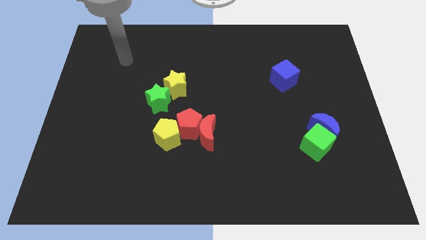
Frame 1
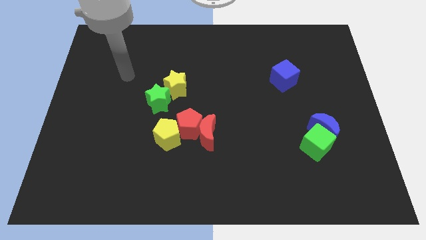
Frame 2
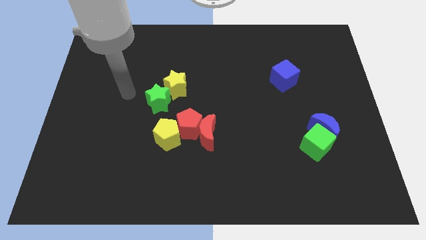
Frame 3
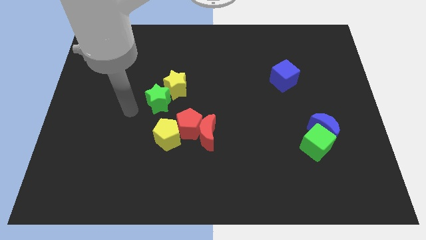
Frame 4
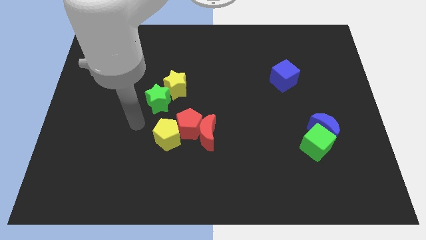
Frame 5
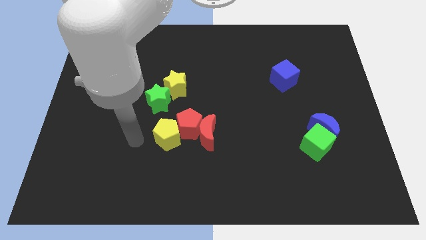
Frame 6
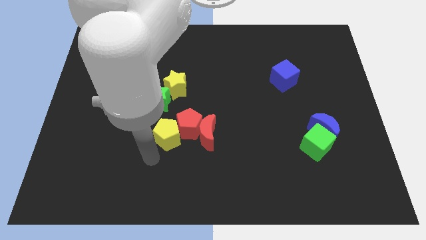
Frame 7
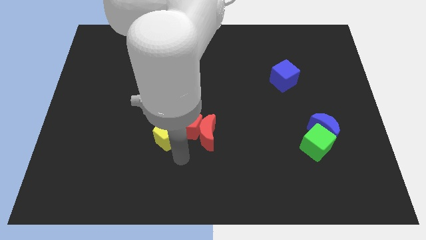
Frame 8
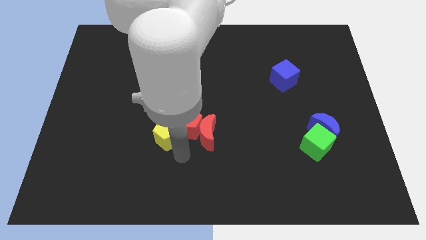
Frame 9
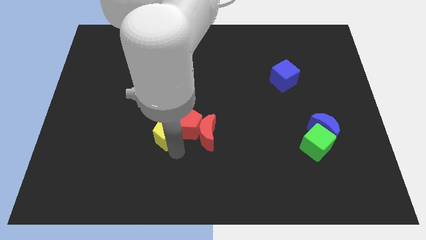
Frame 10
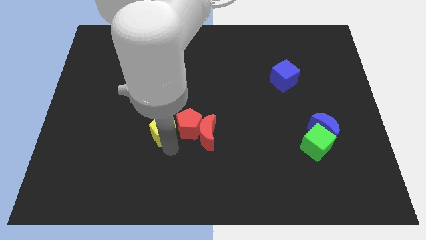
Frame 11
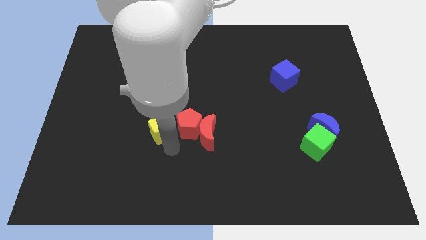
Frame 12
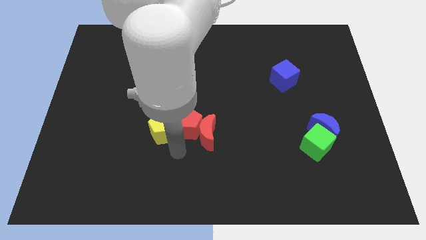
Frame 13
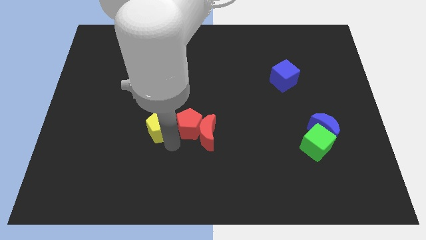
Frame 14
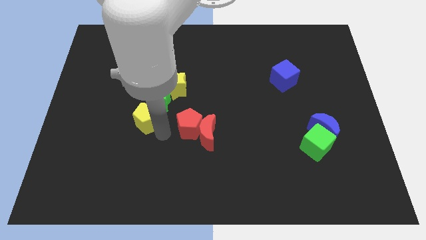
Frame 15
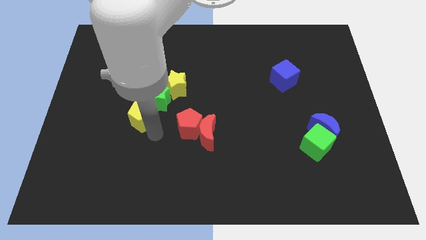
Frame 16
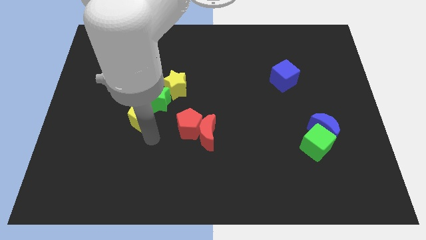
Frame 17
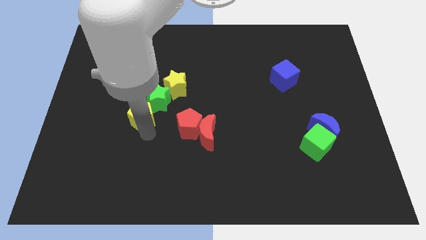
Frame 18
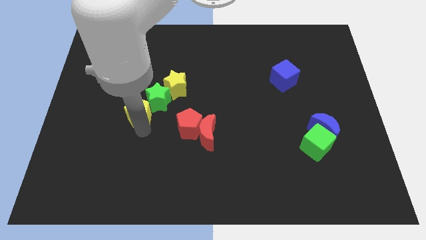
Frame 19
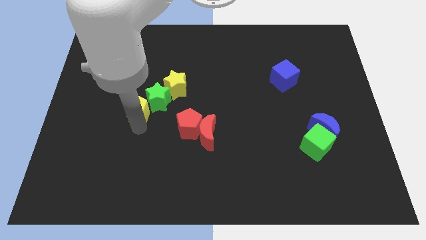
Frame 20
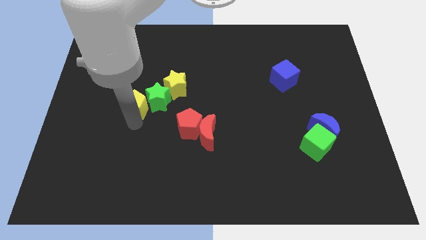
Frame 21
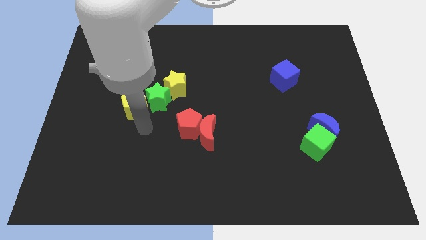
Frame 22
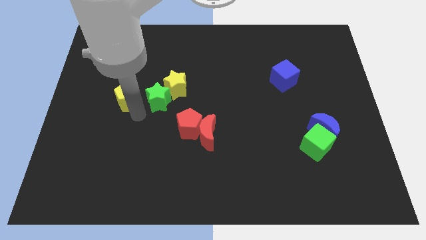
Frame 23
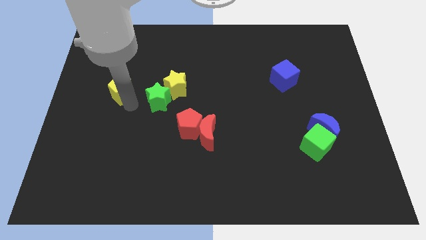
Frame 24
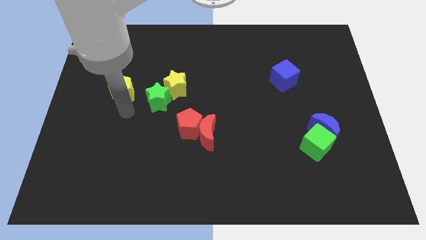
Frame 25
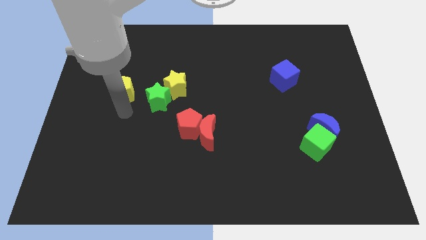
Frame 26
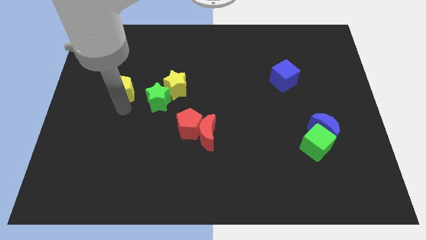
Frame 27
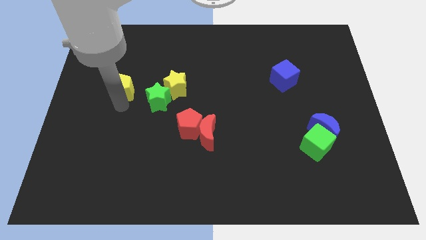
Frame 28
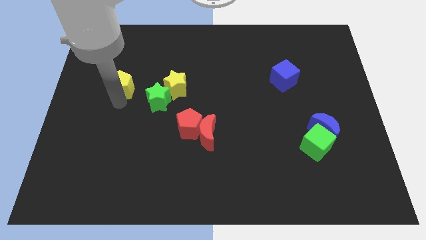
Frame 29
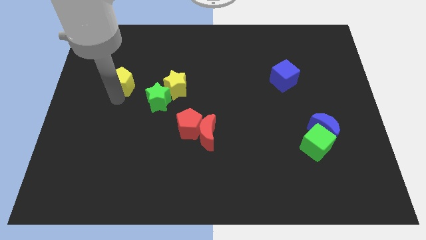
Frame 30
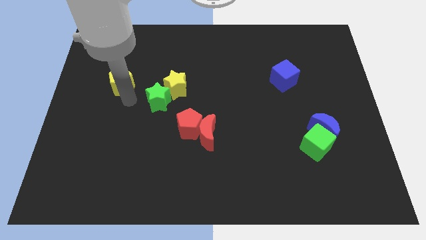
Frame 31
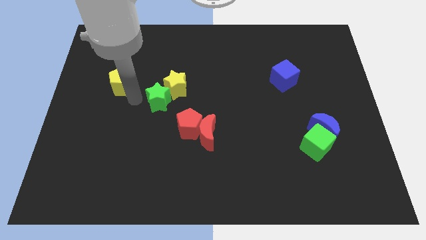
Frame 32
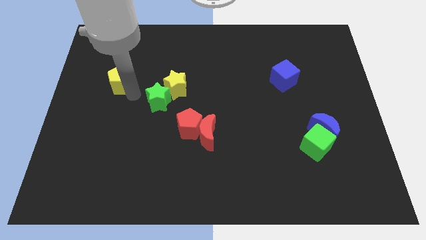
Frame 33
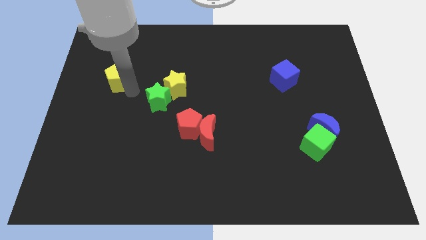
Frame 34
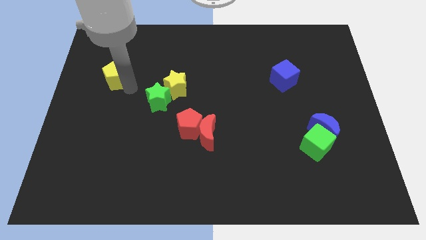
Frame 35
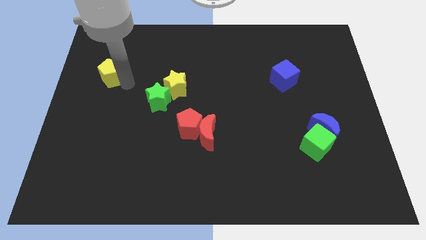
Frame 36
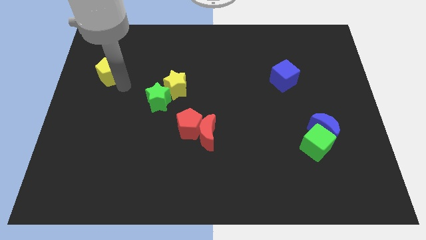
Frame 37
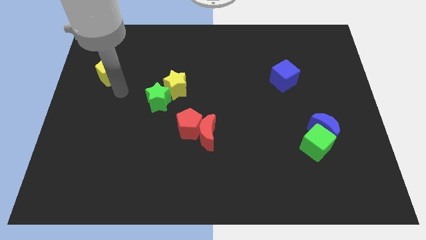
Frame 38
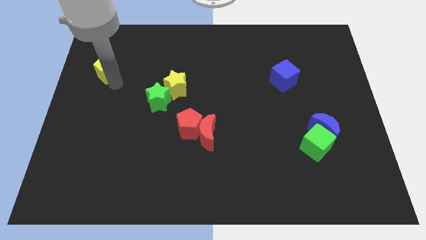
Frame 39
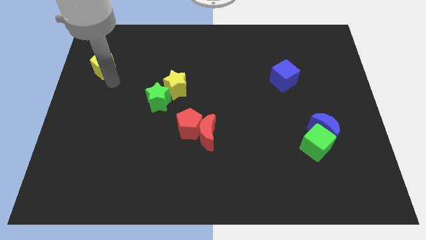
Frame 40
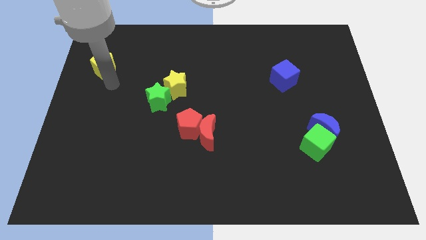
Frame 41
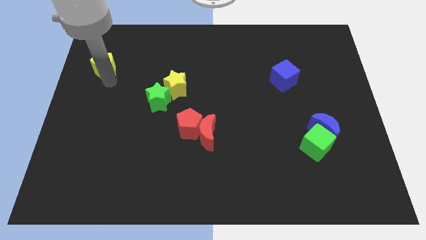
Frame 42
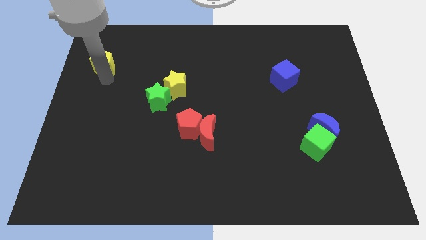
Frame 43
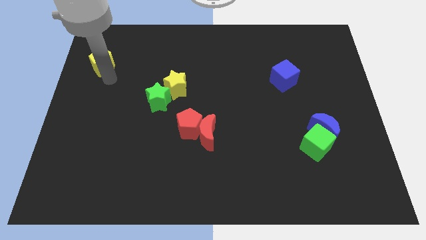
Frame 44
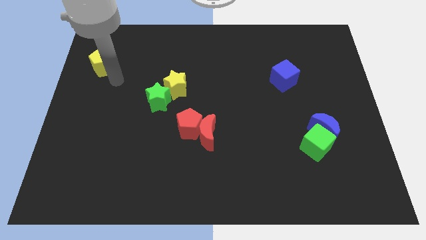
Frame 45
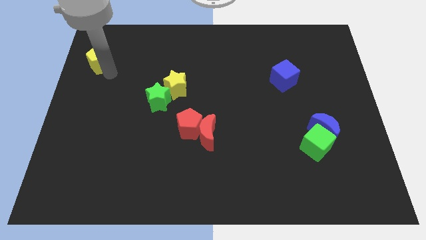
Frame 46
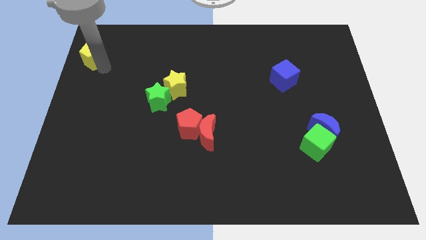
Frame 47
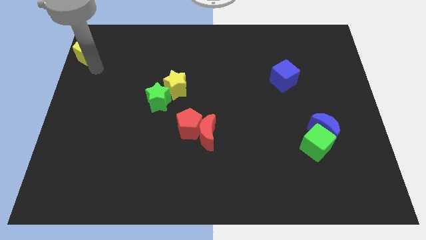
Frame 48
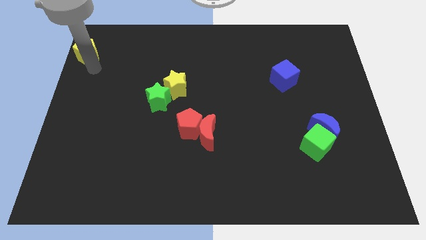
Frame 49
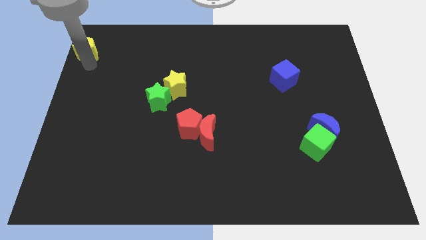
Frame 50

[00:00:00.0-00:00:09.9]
move the yellow pentagon to the top left

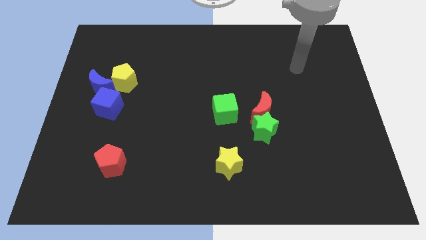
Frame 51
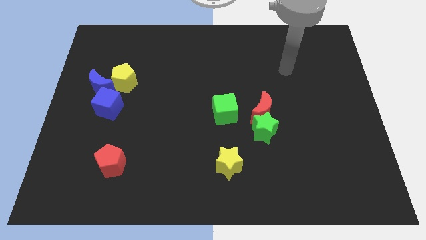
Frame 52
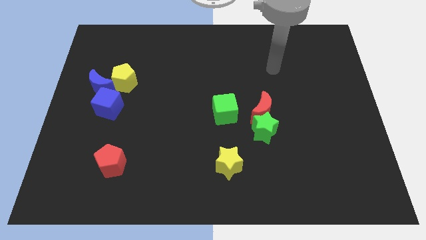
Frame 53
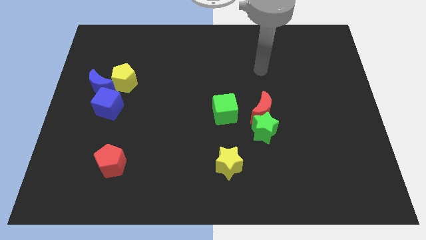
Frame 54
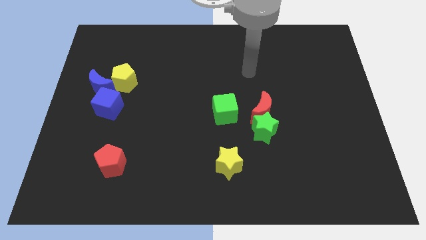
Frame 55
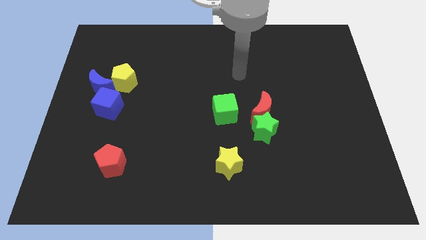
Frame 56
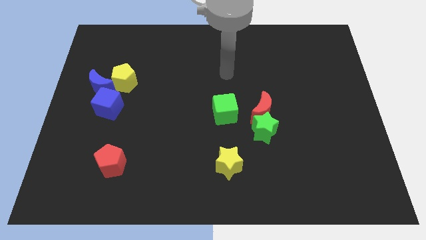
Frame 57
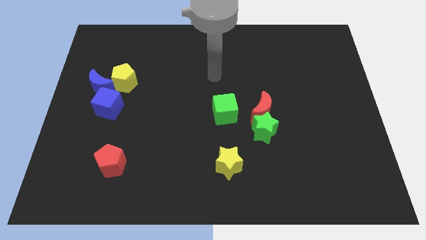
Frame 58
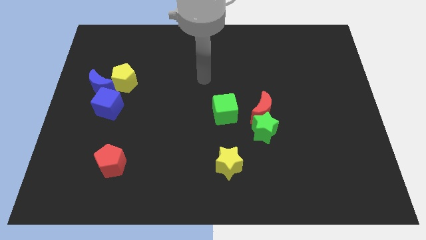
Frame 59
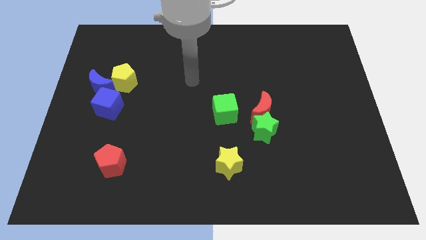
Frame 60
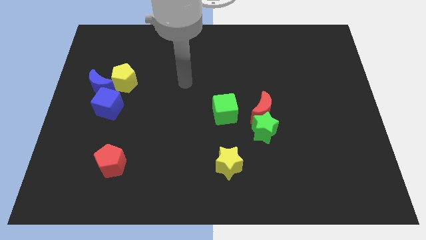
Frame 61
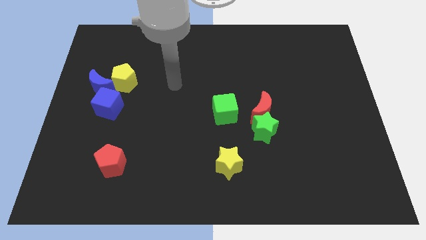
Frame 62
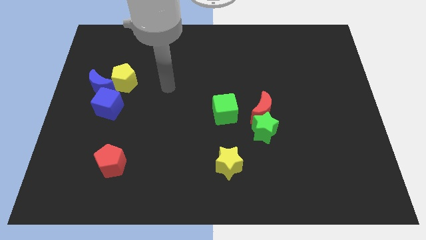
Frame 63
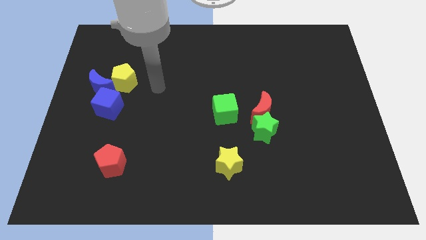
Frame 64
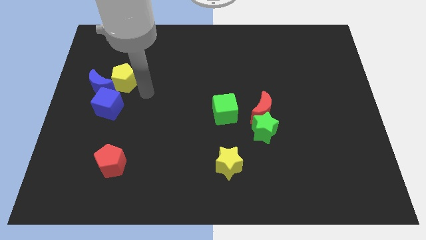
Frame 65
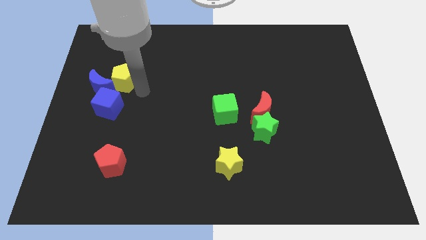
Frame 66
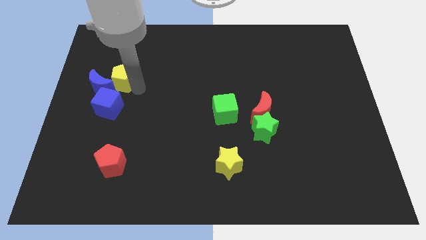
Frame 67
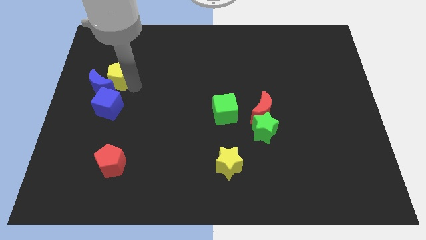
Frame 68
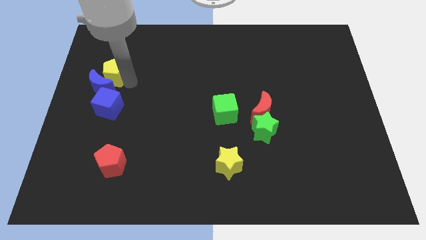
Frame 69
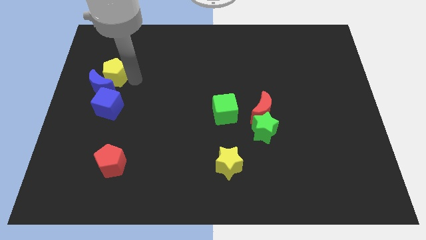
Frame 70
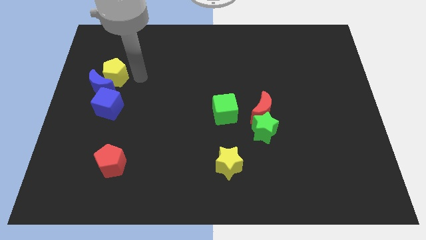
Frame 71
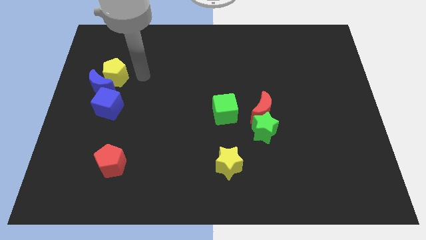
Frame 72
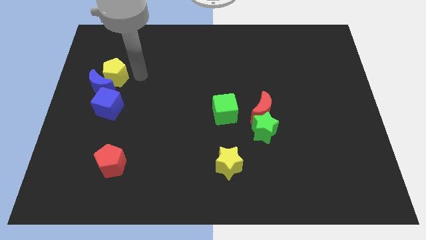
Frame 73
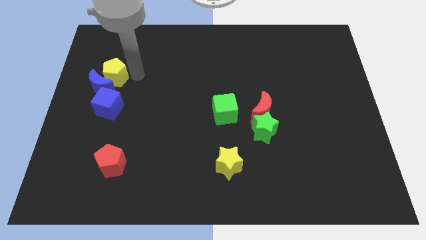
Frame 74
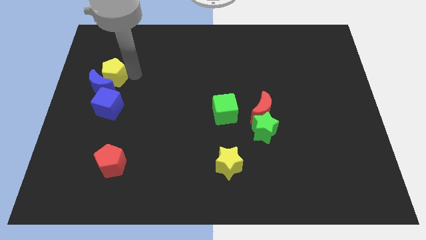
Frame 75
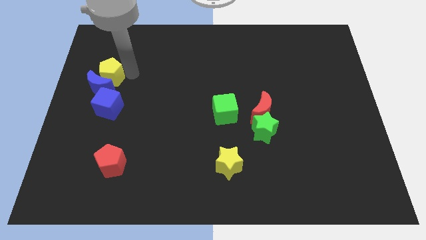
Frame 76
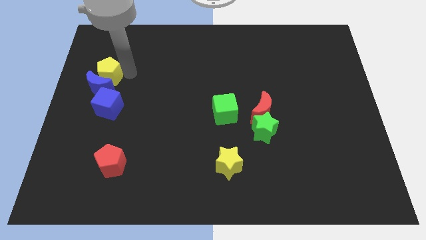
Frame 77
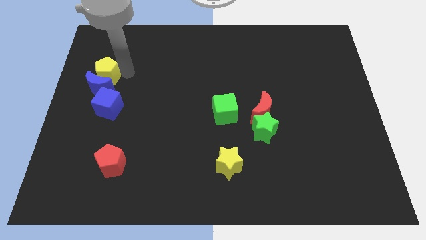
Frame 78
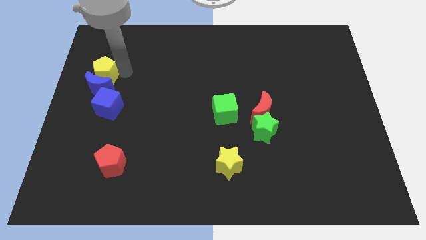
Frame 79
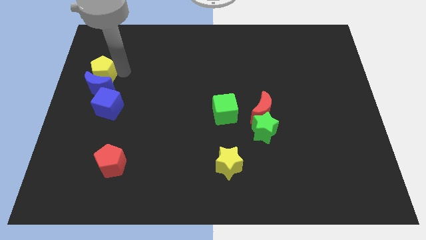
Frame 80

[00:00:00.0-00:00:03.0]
slide the yellow pentagon to the left side of the board
